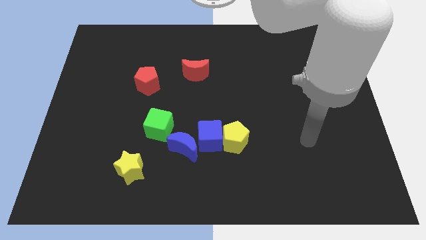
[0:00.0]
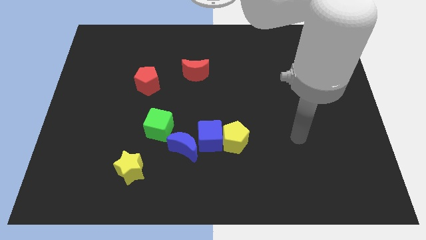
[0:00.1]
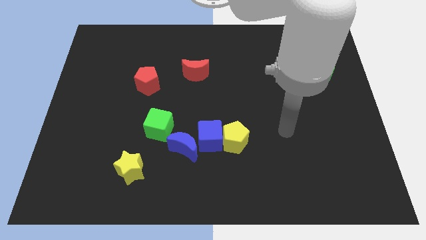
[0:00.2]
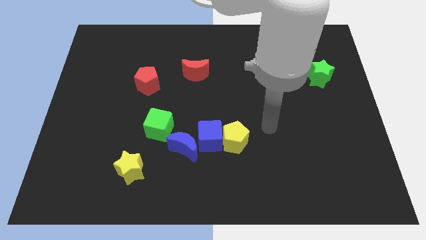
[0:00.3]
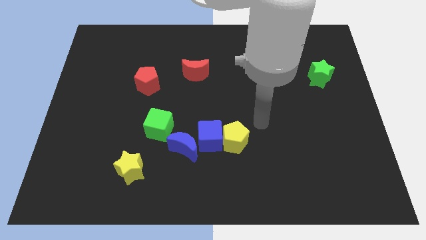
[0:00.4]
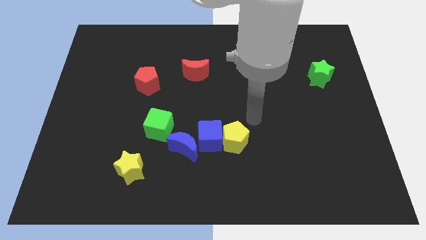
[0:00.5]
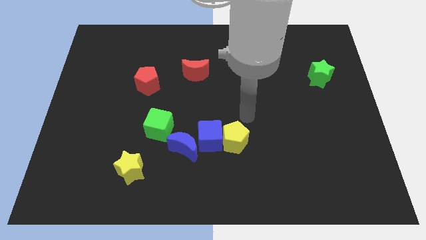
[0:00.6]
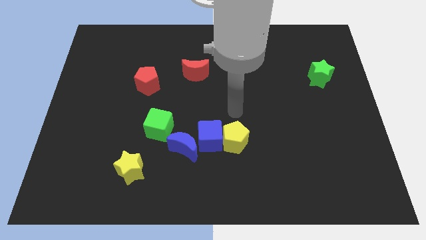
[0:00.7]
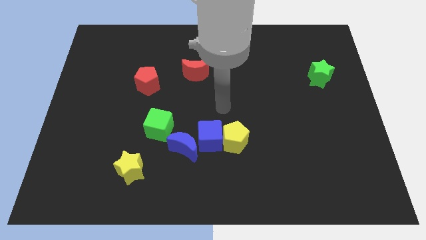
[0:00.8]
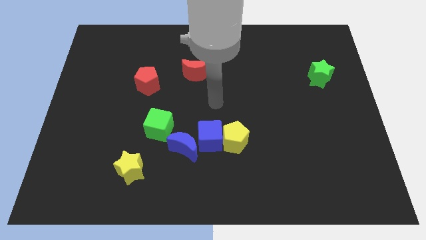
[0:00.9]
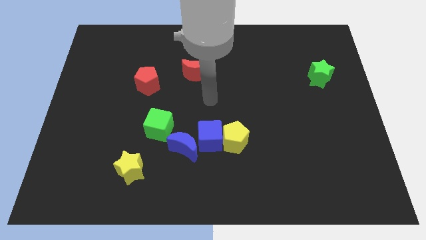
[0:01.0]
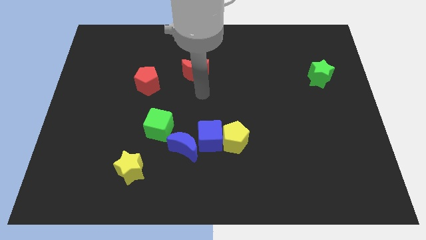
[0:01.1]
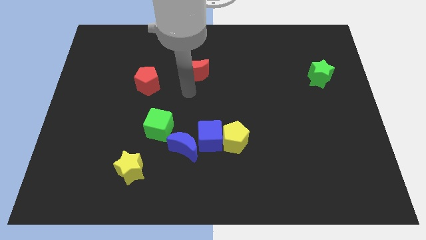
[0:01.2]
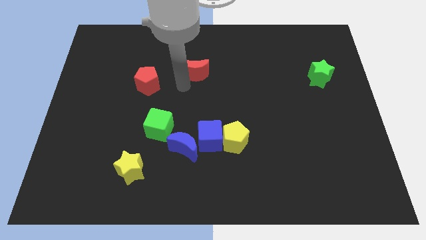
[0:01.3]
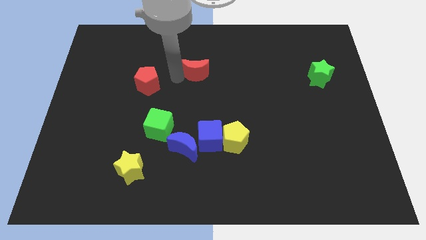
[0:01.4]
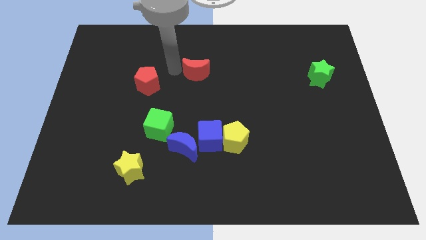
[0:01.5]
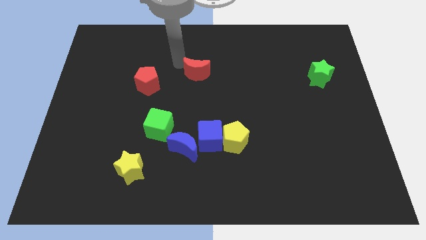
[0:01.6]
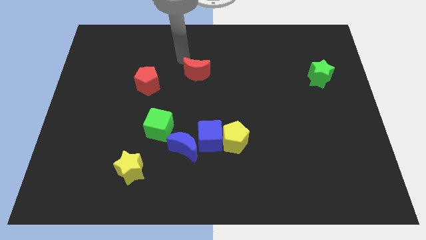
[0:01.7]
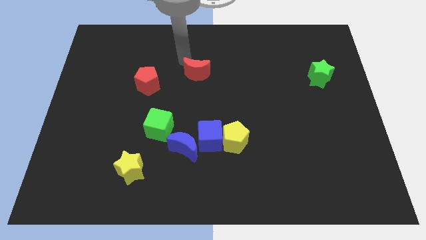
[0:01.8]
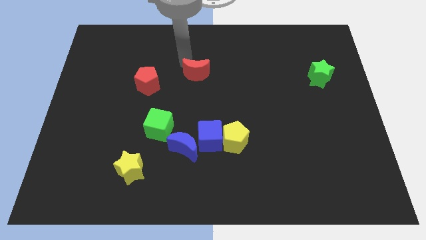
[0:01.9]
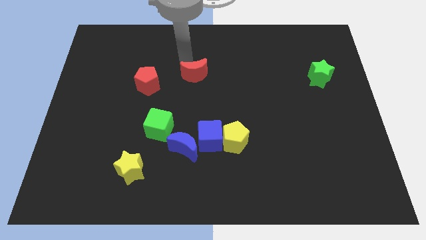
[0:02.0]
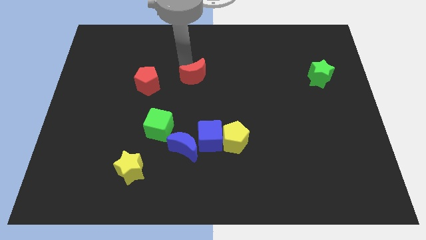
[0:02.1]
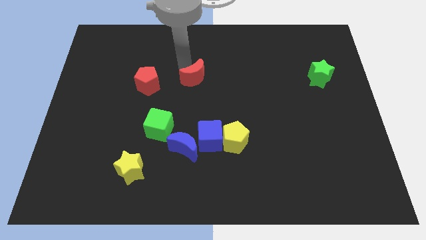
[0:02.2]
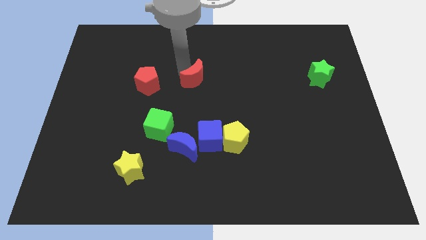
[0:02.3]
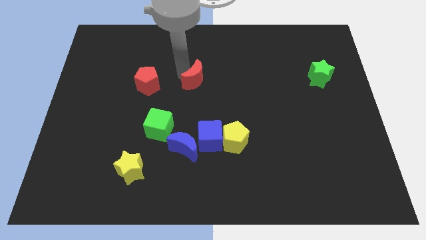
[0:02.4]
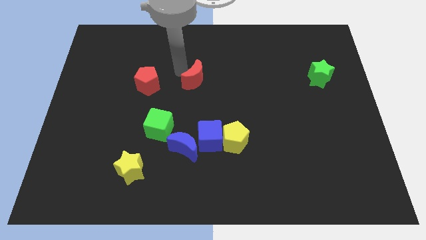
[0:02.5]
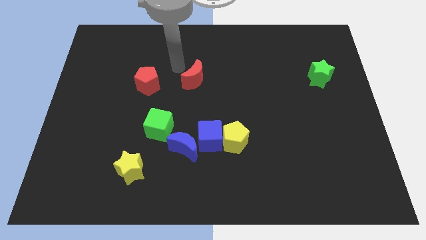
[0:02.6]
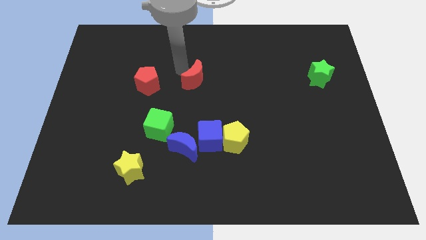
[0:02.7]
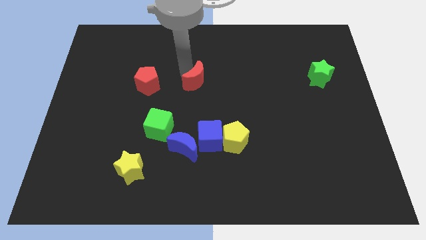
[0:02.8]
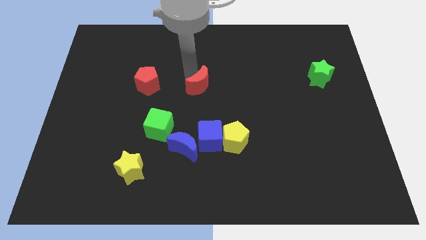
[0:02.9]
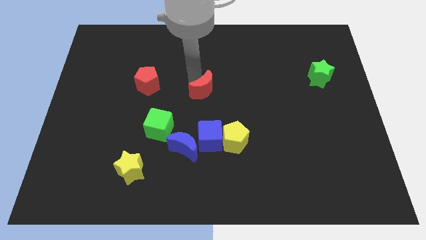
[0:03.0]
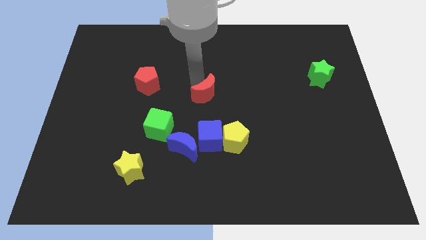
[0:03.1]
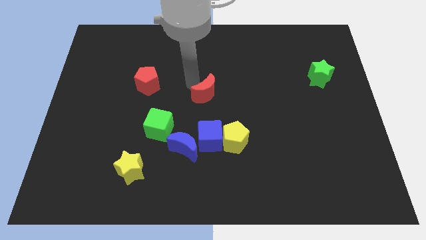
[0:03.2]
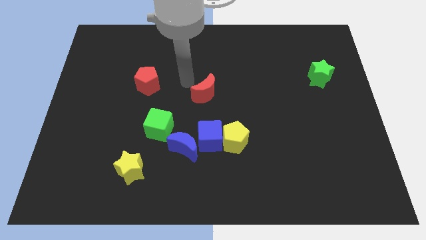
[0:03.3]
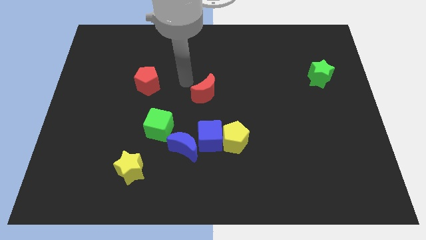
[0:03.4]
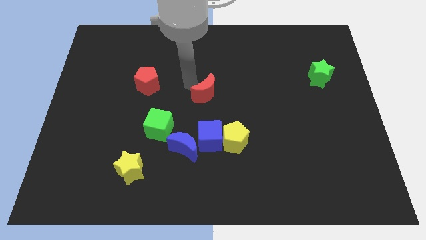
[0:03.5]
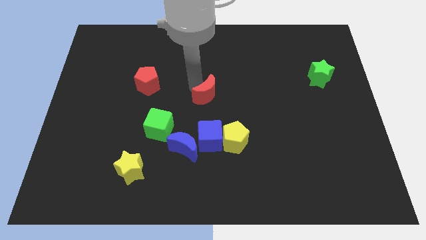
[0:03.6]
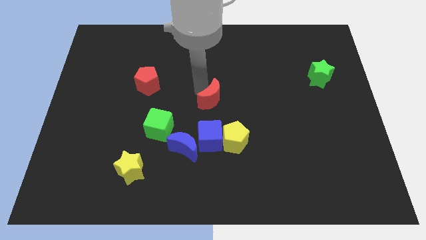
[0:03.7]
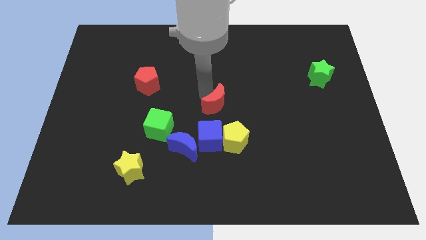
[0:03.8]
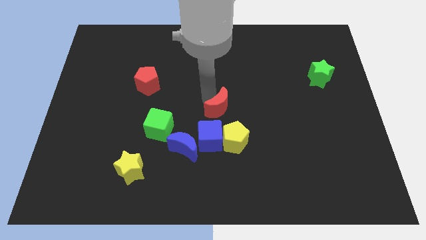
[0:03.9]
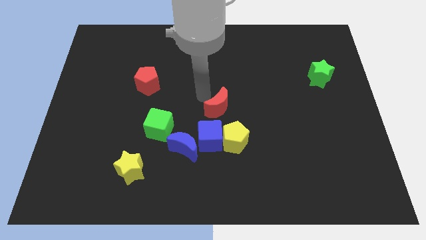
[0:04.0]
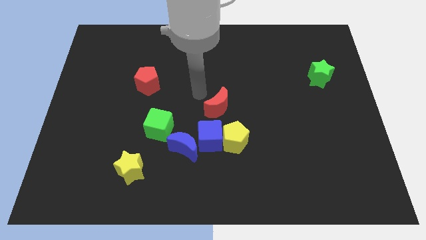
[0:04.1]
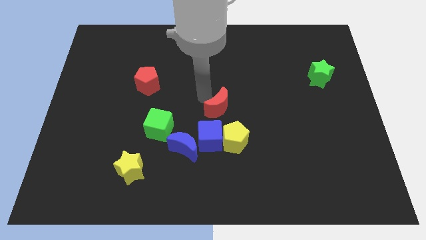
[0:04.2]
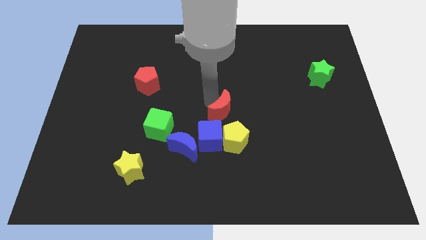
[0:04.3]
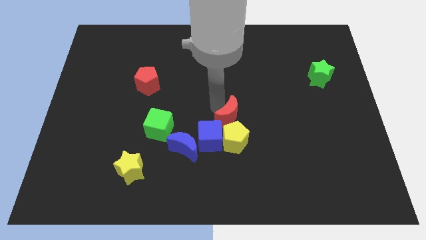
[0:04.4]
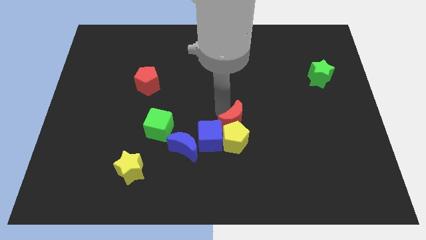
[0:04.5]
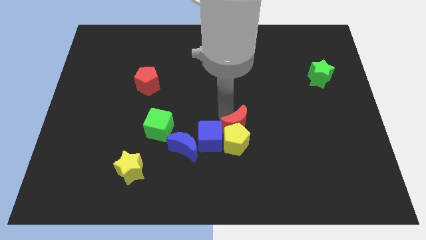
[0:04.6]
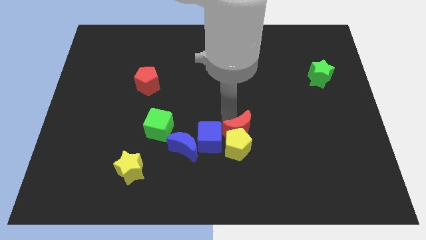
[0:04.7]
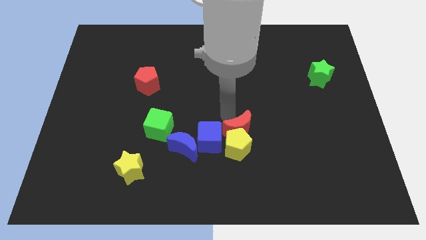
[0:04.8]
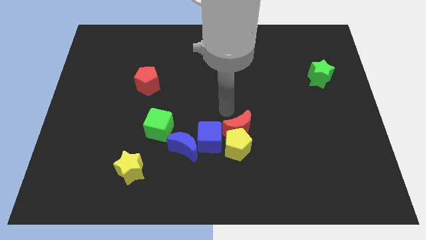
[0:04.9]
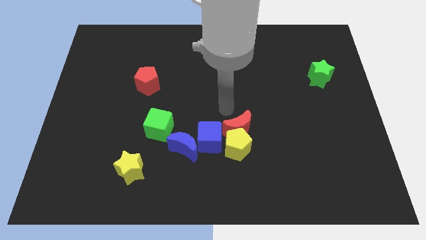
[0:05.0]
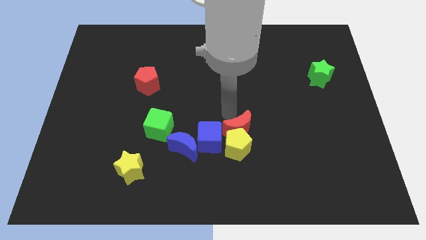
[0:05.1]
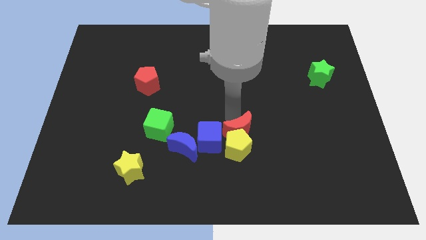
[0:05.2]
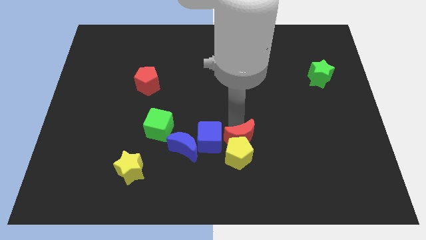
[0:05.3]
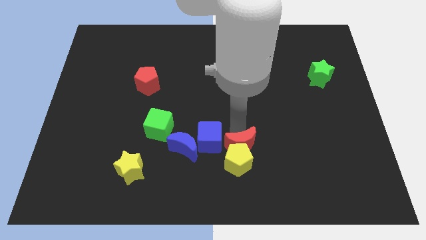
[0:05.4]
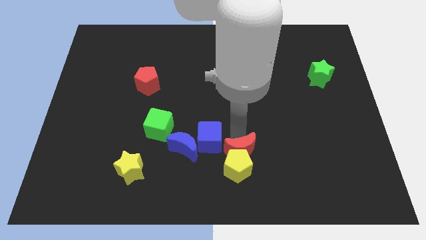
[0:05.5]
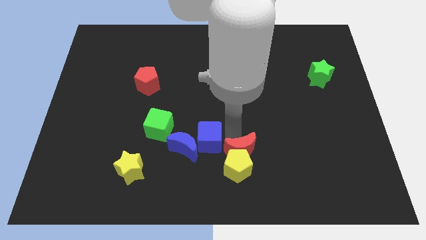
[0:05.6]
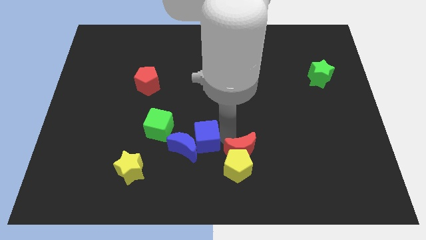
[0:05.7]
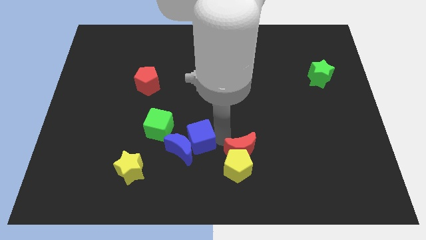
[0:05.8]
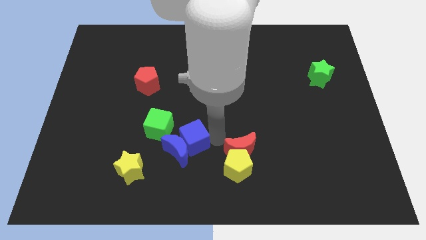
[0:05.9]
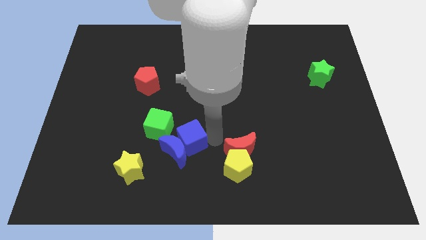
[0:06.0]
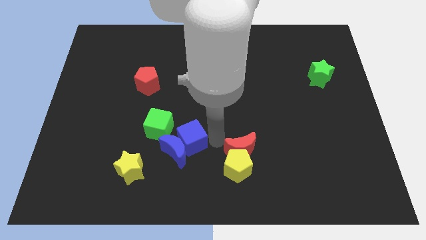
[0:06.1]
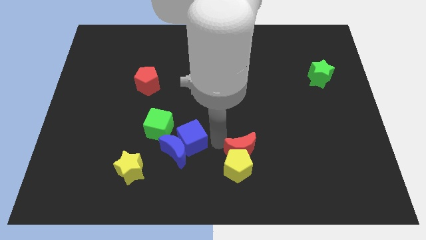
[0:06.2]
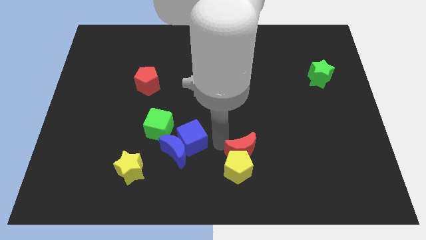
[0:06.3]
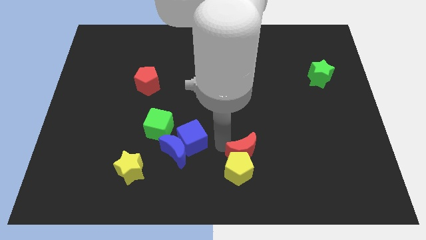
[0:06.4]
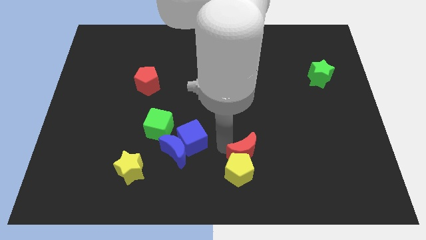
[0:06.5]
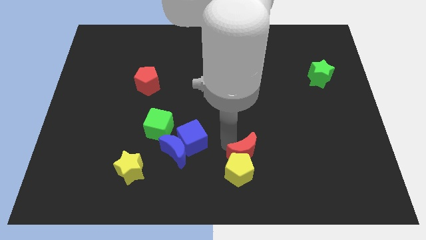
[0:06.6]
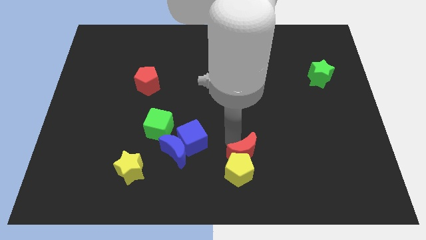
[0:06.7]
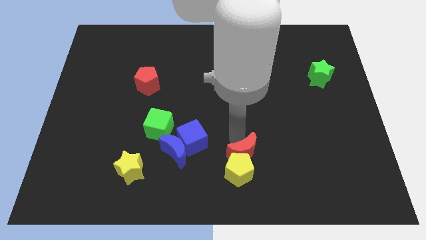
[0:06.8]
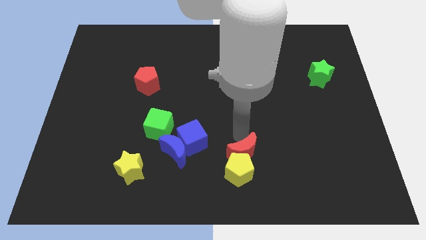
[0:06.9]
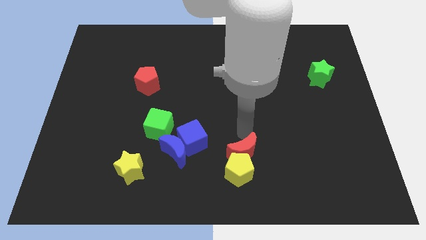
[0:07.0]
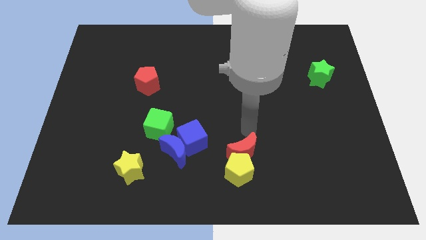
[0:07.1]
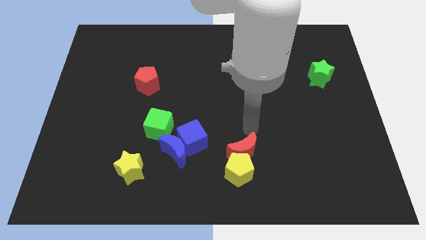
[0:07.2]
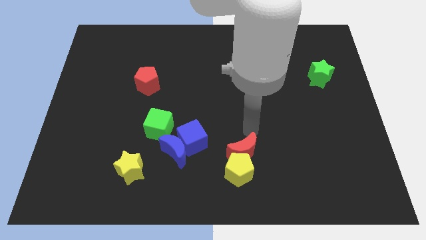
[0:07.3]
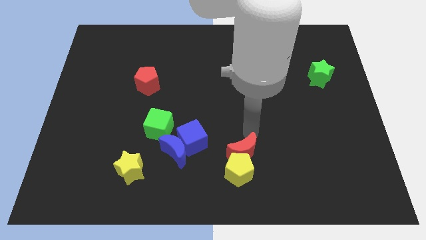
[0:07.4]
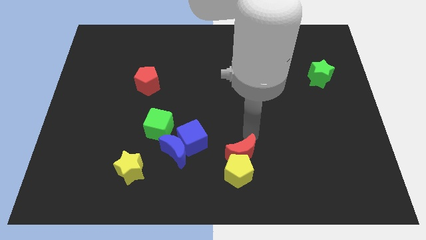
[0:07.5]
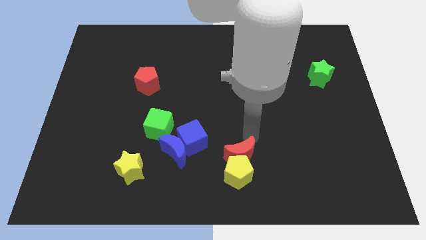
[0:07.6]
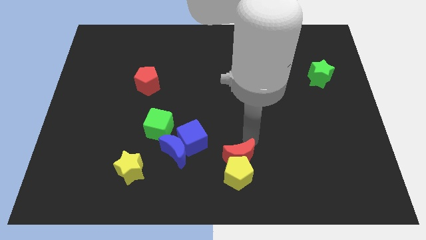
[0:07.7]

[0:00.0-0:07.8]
put the red moon to the bottom
